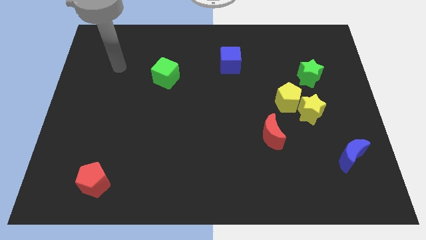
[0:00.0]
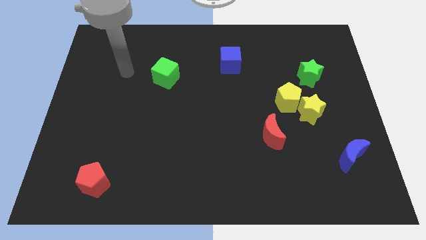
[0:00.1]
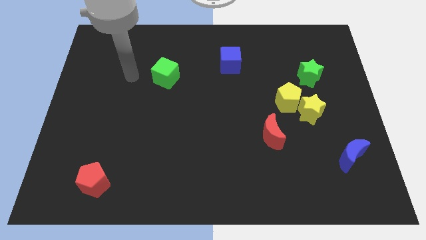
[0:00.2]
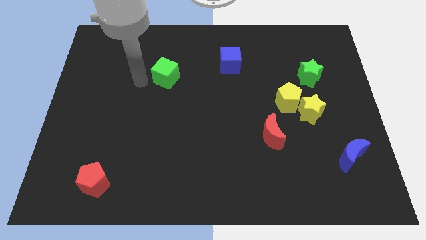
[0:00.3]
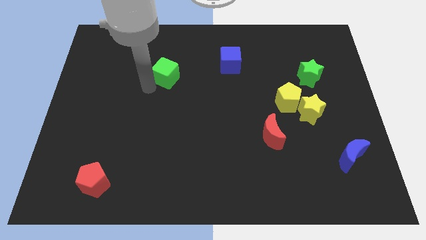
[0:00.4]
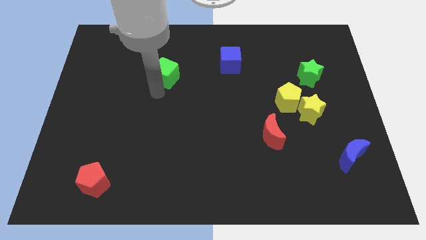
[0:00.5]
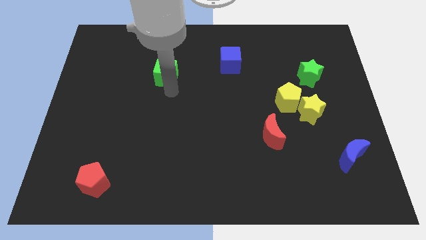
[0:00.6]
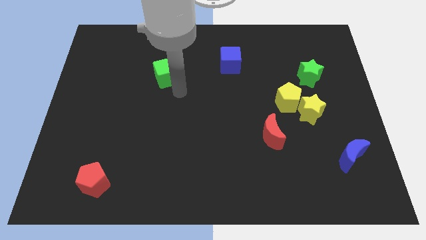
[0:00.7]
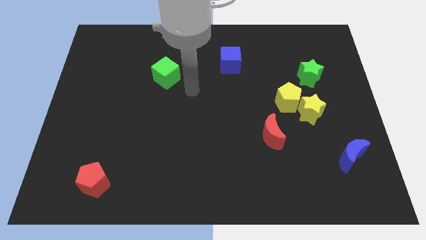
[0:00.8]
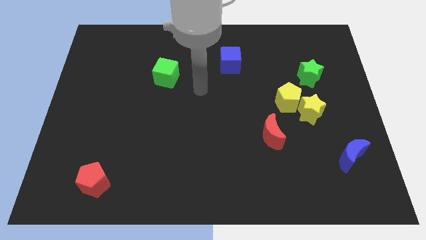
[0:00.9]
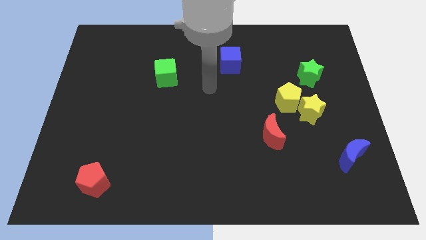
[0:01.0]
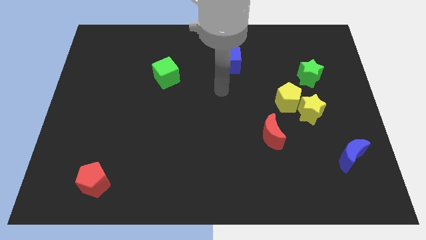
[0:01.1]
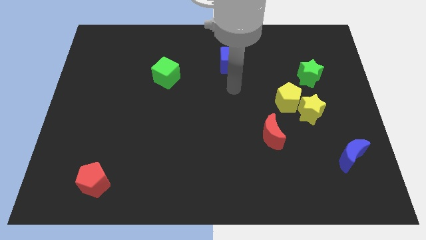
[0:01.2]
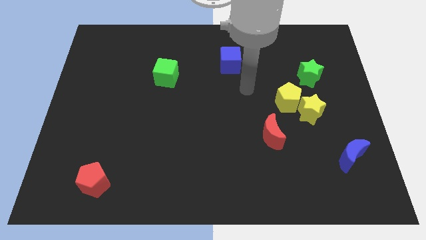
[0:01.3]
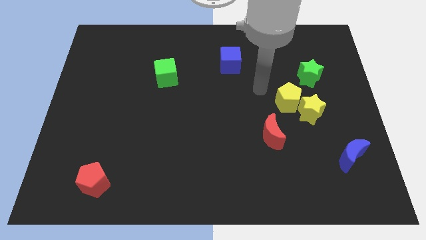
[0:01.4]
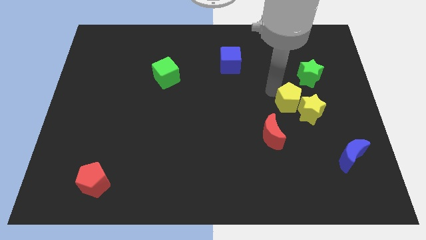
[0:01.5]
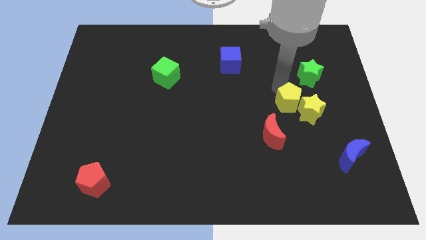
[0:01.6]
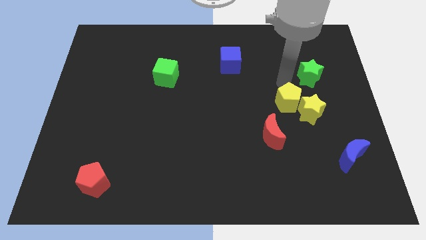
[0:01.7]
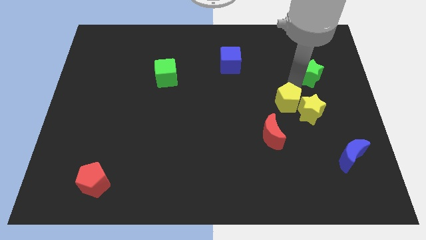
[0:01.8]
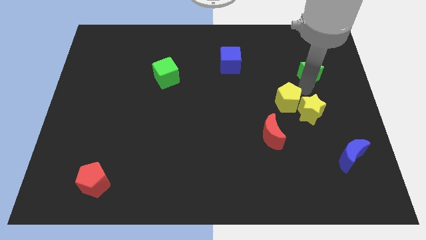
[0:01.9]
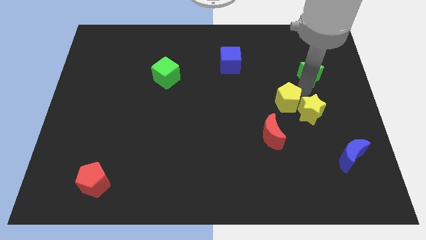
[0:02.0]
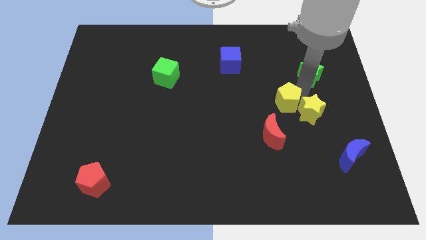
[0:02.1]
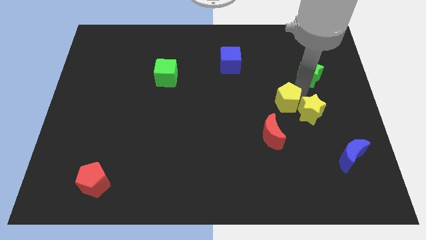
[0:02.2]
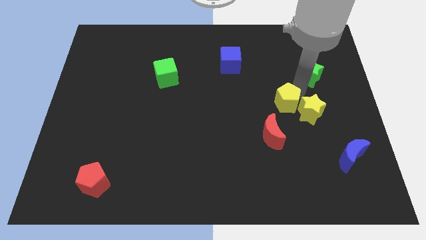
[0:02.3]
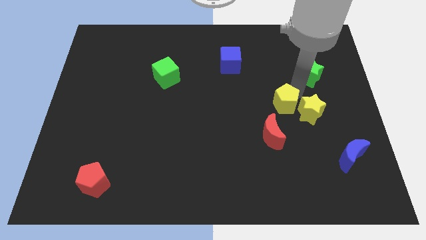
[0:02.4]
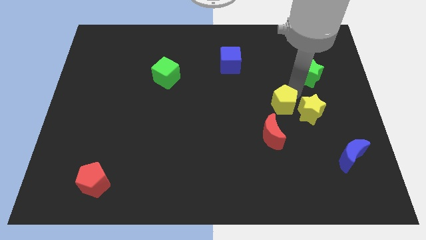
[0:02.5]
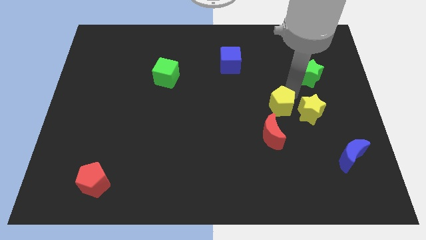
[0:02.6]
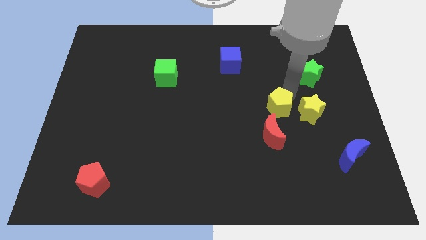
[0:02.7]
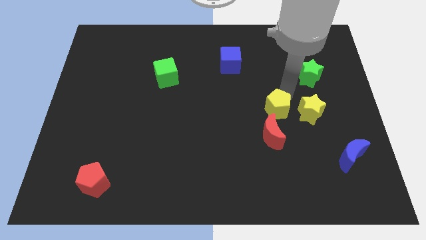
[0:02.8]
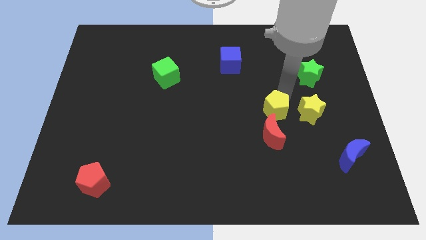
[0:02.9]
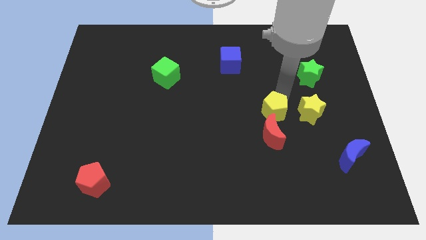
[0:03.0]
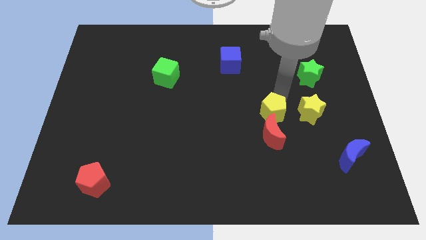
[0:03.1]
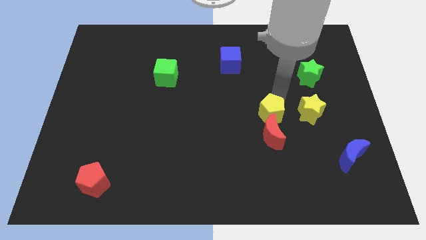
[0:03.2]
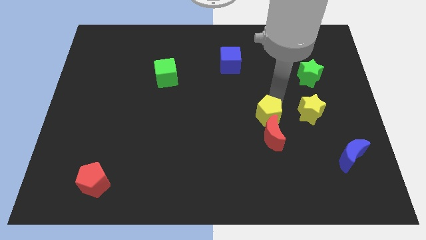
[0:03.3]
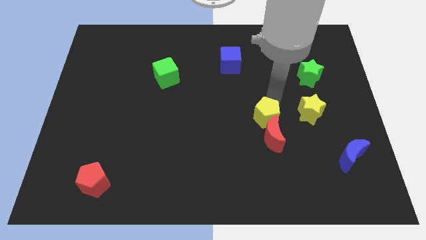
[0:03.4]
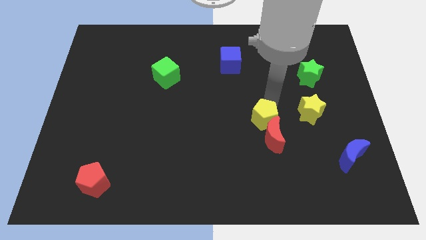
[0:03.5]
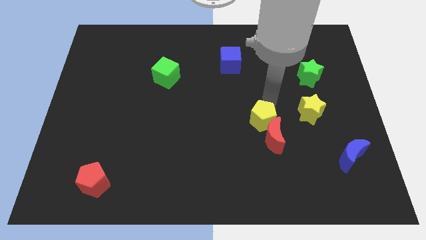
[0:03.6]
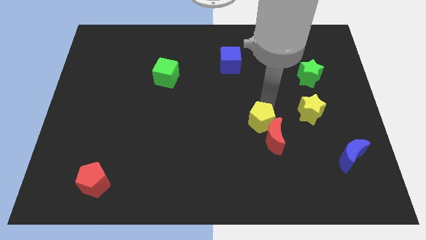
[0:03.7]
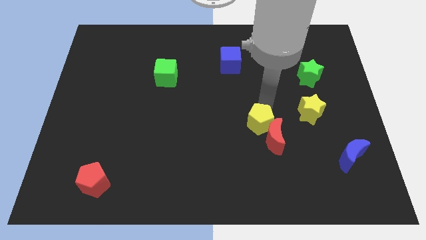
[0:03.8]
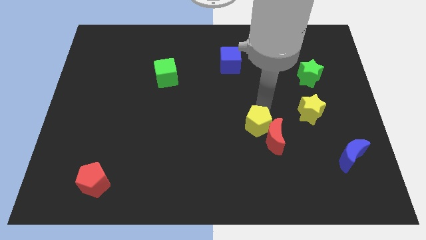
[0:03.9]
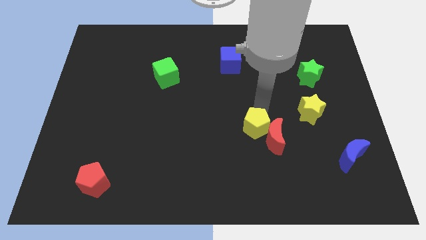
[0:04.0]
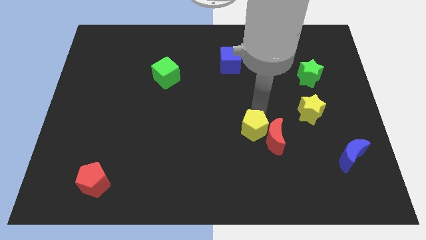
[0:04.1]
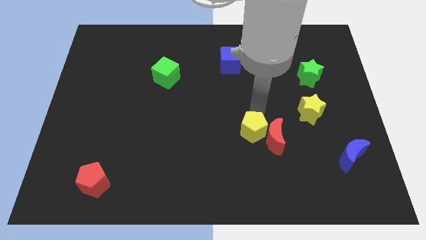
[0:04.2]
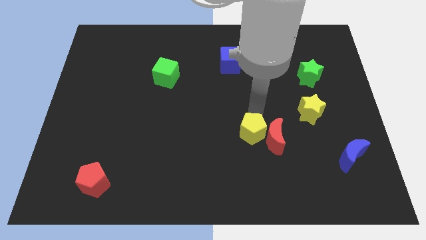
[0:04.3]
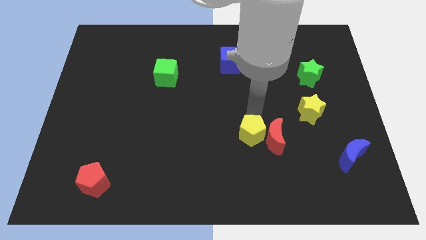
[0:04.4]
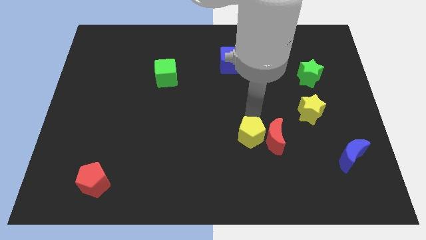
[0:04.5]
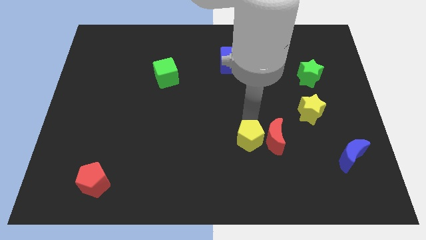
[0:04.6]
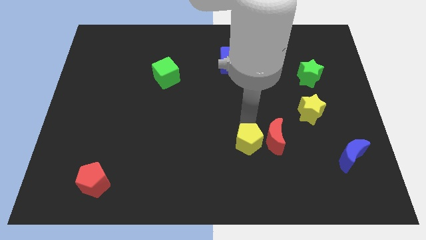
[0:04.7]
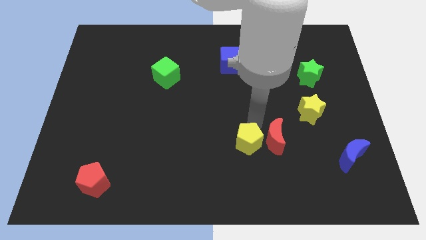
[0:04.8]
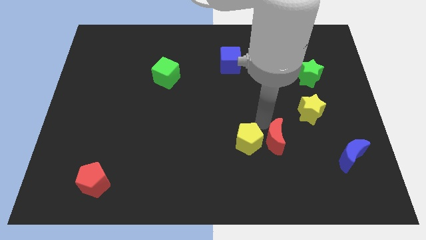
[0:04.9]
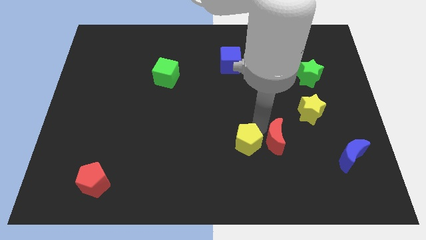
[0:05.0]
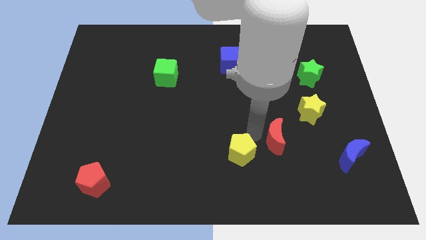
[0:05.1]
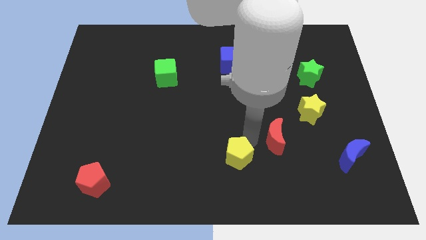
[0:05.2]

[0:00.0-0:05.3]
push the yellow pentagon to the bottom

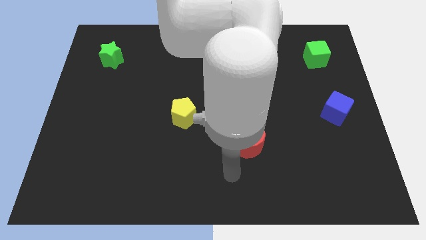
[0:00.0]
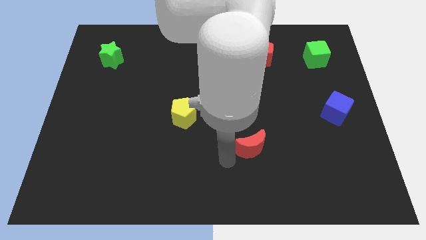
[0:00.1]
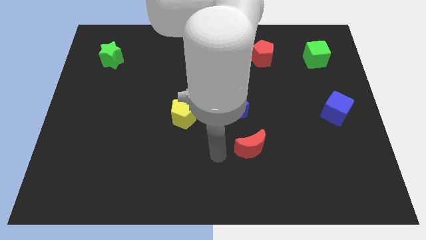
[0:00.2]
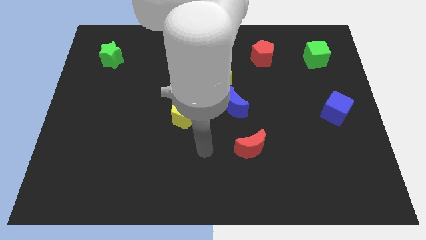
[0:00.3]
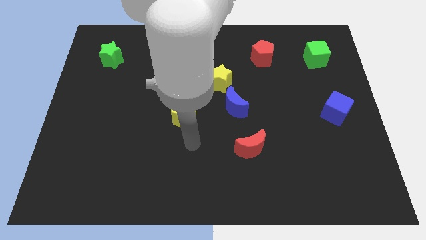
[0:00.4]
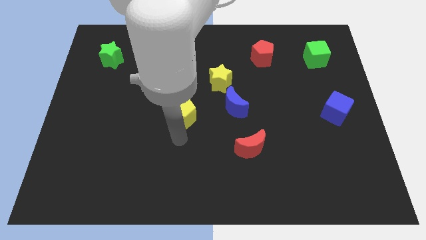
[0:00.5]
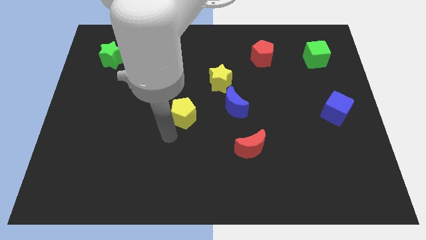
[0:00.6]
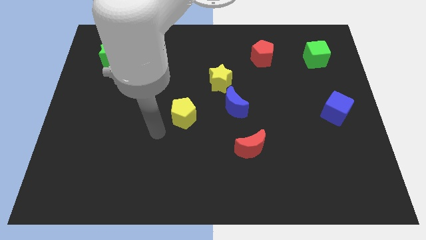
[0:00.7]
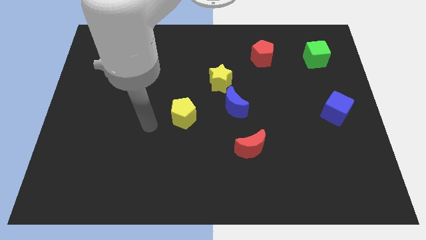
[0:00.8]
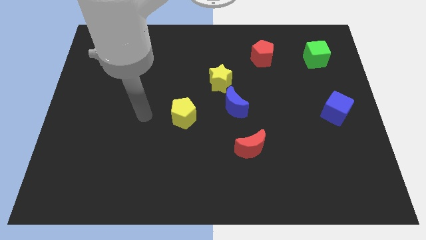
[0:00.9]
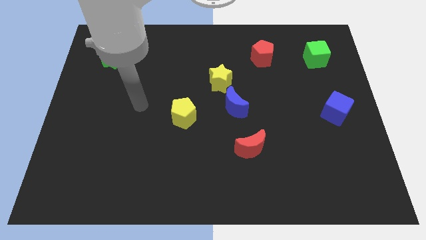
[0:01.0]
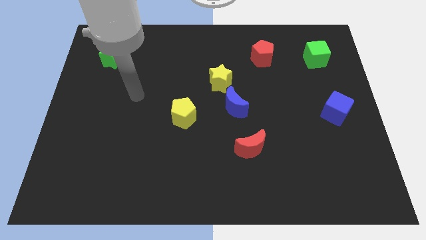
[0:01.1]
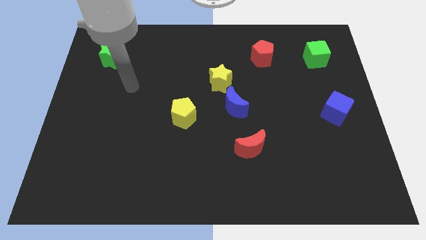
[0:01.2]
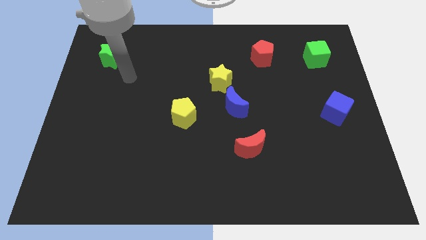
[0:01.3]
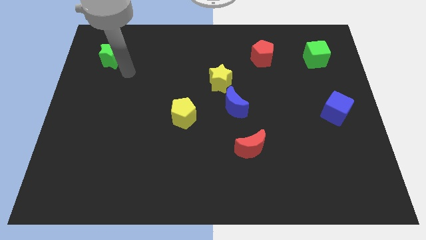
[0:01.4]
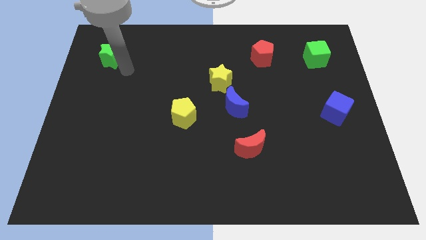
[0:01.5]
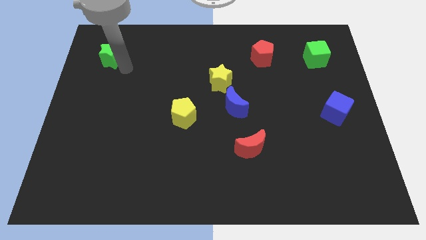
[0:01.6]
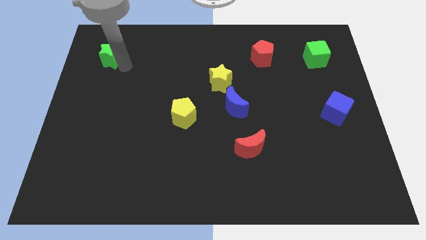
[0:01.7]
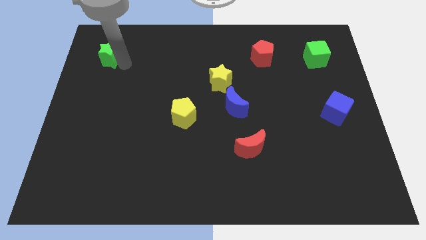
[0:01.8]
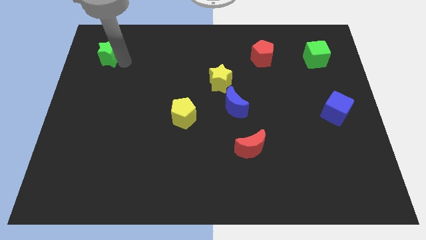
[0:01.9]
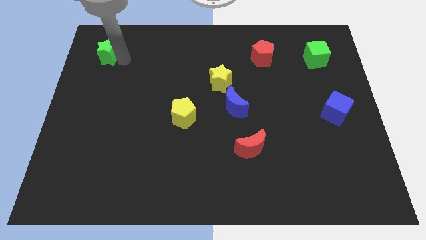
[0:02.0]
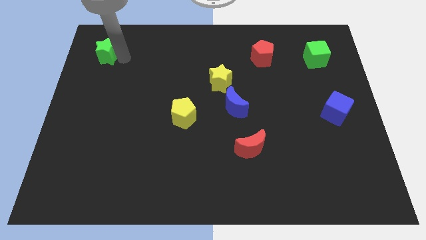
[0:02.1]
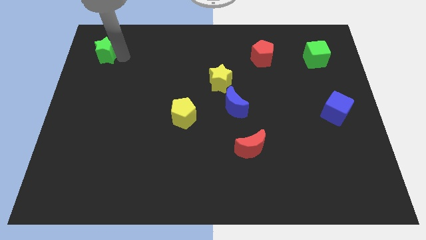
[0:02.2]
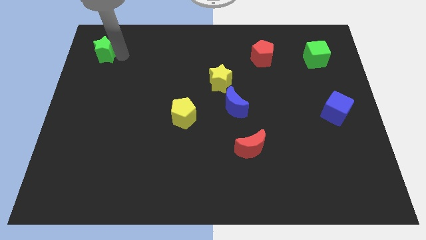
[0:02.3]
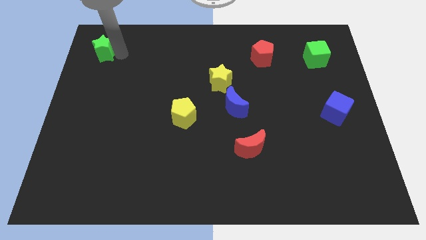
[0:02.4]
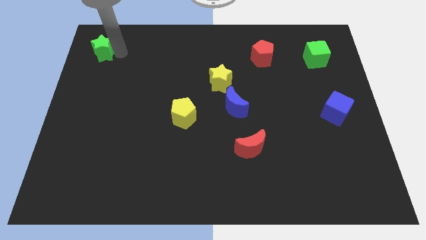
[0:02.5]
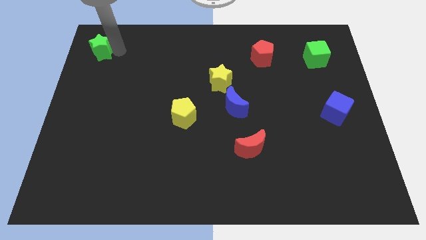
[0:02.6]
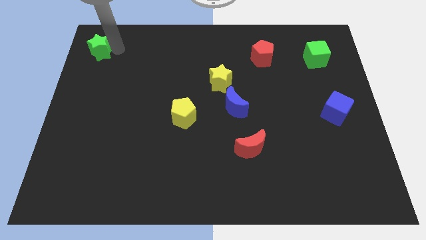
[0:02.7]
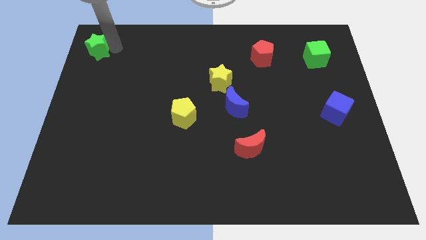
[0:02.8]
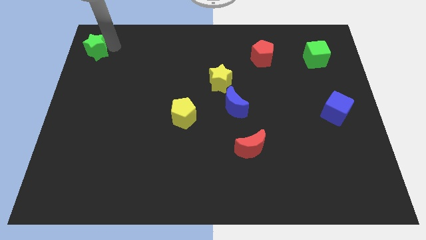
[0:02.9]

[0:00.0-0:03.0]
move the green star to the top left of the board
